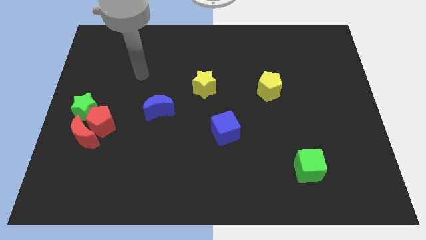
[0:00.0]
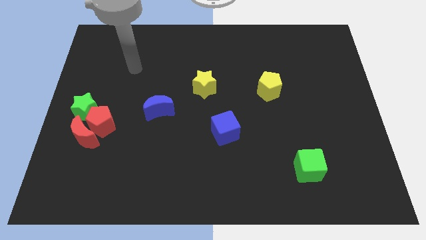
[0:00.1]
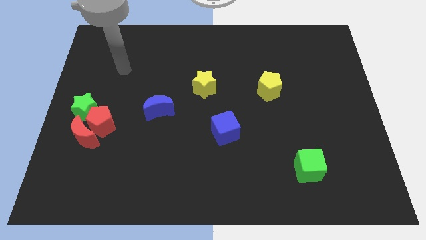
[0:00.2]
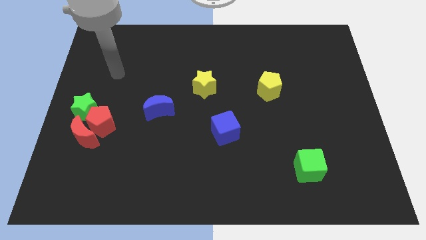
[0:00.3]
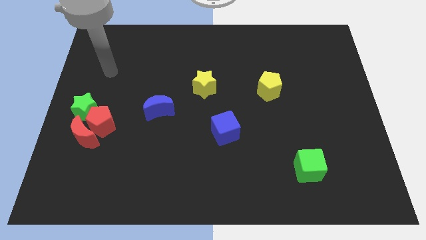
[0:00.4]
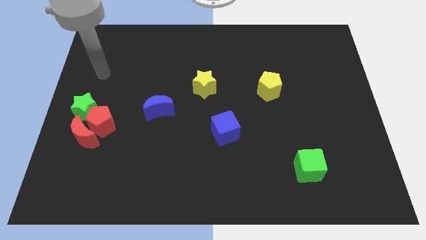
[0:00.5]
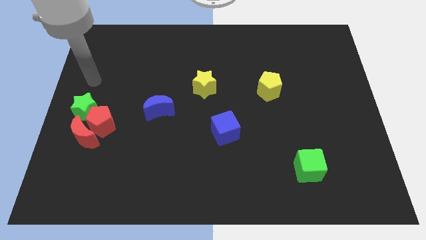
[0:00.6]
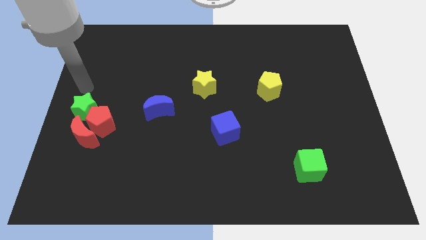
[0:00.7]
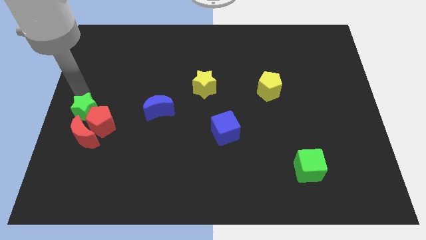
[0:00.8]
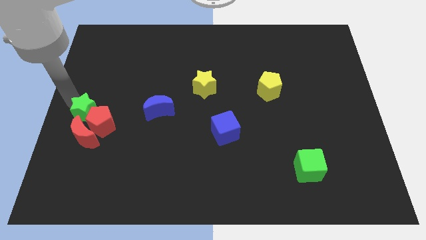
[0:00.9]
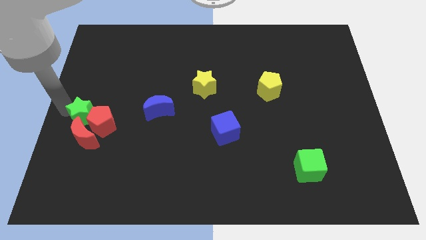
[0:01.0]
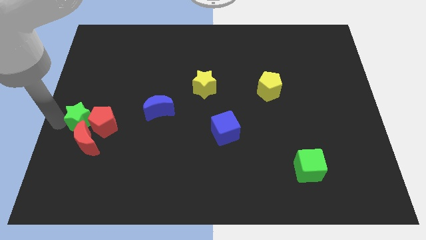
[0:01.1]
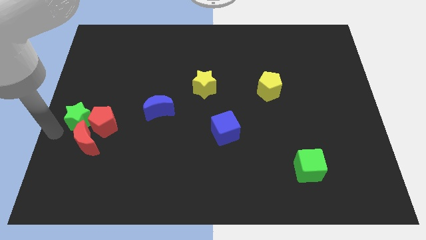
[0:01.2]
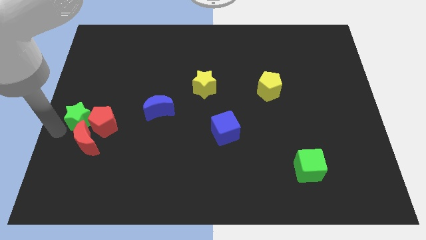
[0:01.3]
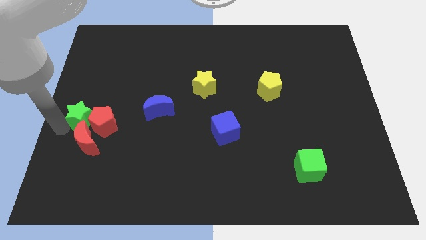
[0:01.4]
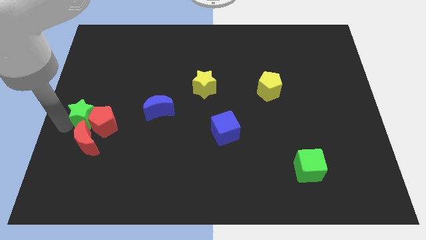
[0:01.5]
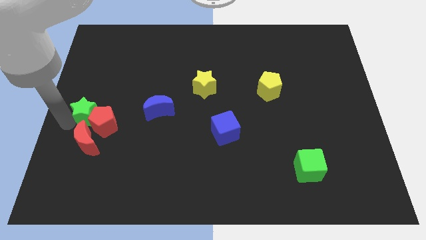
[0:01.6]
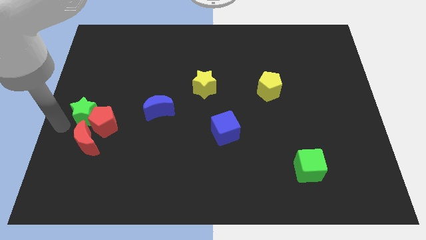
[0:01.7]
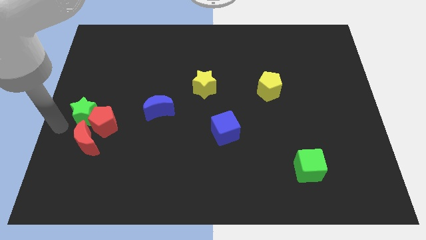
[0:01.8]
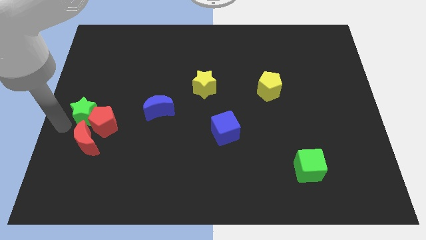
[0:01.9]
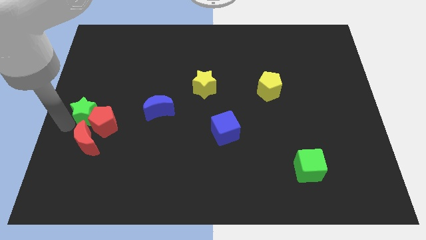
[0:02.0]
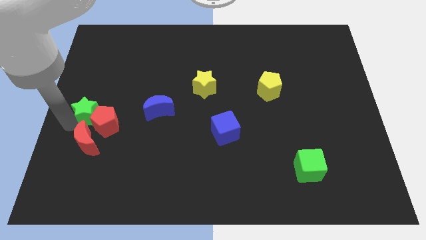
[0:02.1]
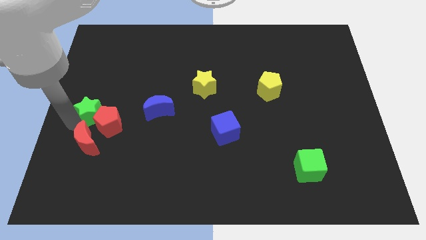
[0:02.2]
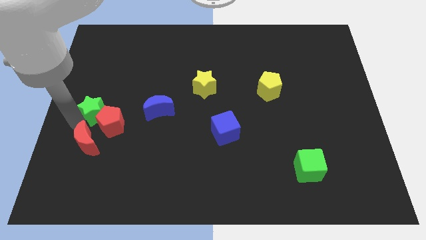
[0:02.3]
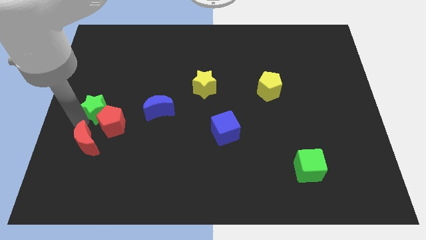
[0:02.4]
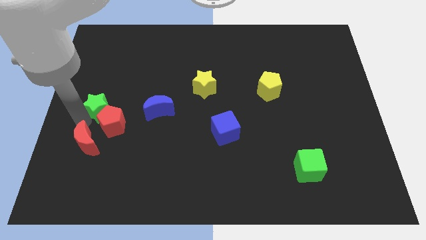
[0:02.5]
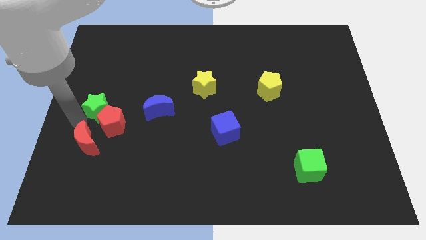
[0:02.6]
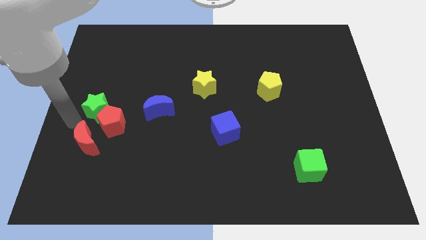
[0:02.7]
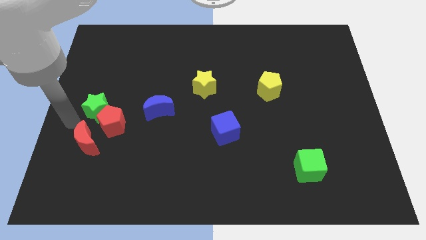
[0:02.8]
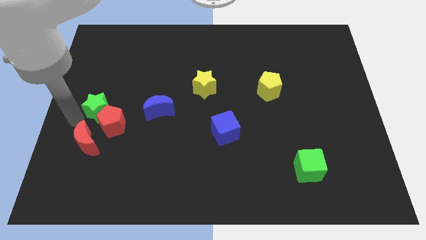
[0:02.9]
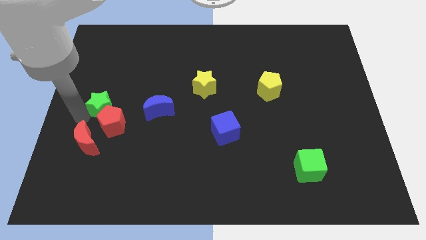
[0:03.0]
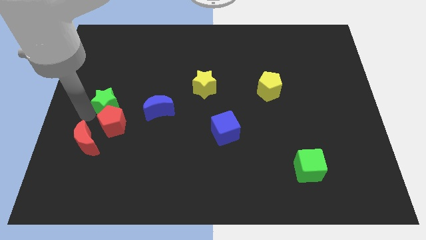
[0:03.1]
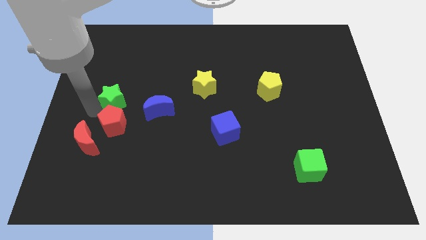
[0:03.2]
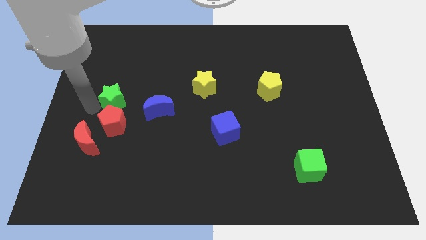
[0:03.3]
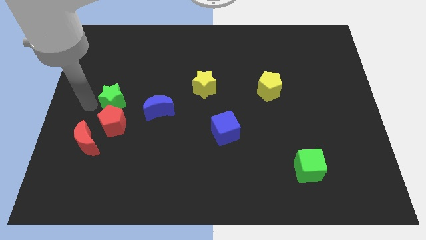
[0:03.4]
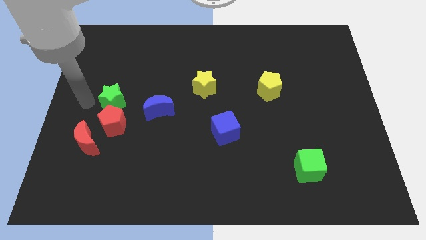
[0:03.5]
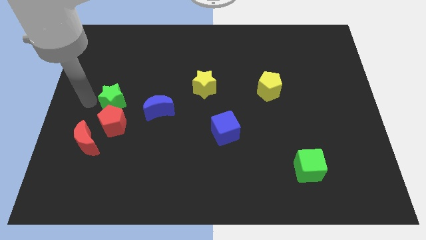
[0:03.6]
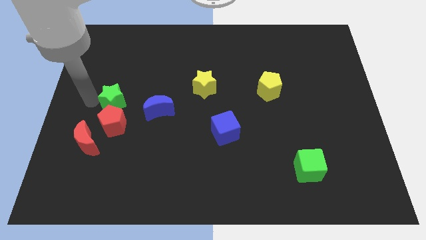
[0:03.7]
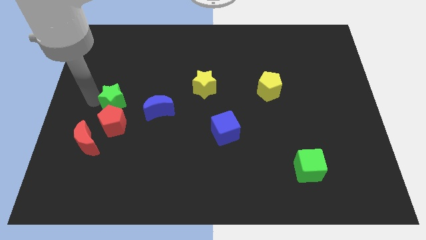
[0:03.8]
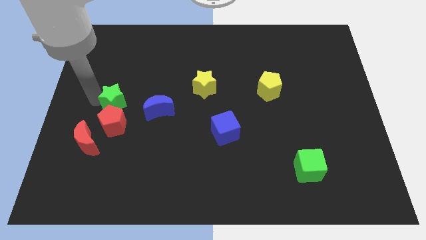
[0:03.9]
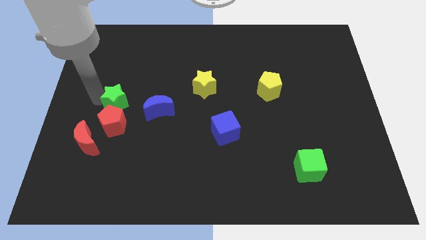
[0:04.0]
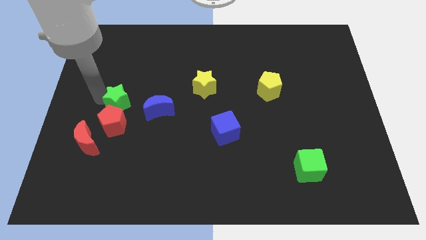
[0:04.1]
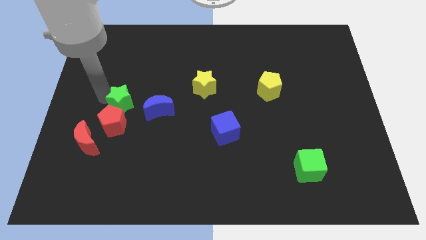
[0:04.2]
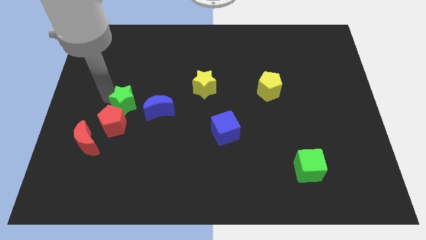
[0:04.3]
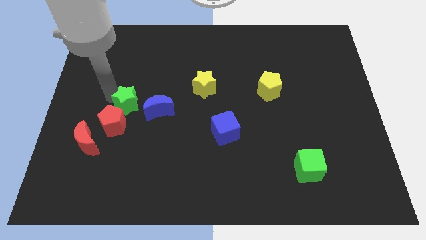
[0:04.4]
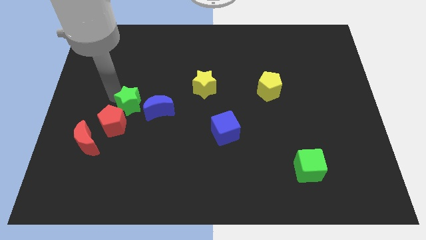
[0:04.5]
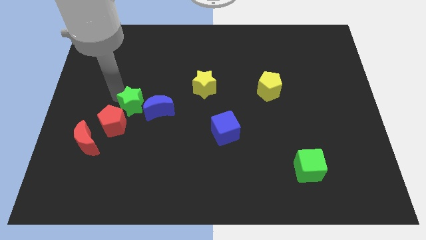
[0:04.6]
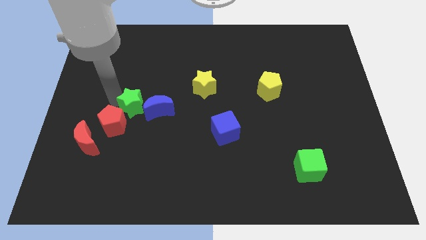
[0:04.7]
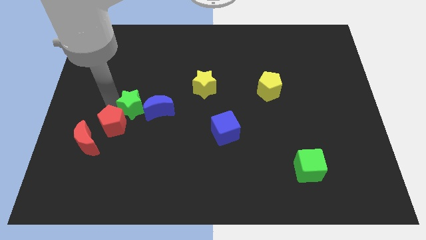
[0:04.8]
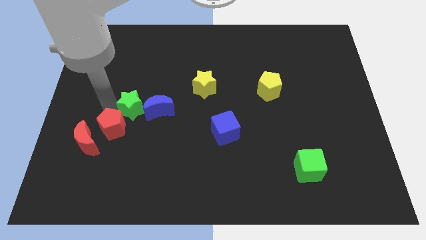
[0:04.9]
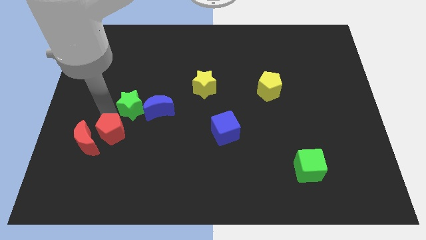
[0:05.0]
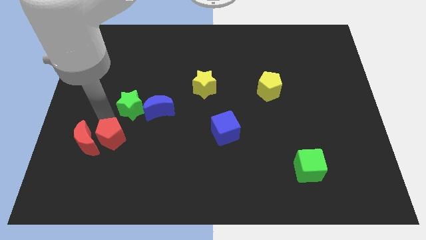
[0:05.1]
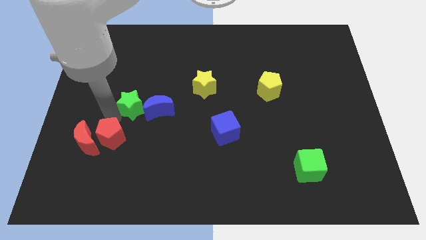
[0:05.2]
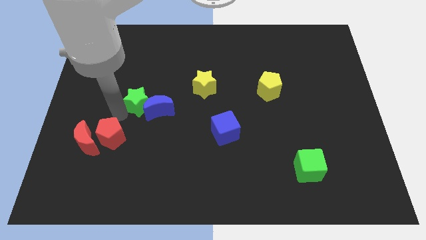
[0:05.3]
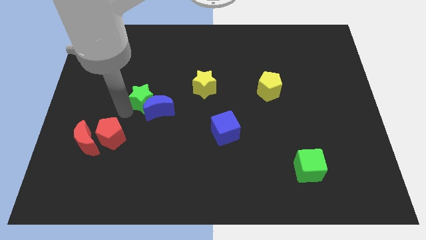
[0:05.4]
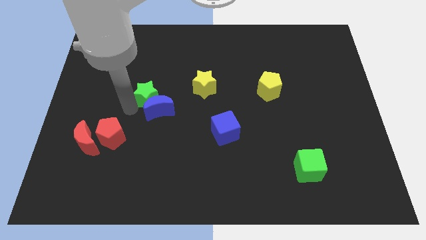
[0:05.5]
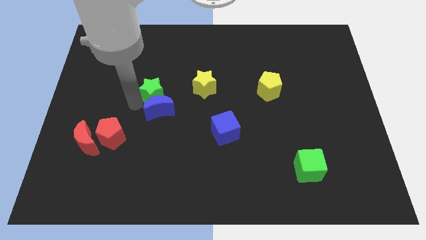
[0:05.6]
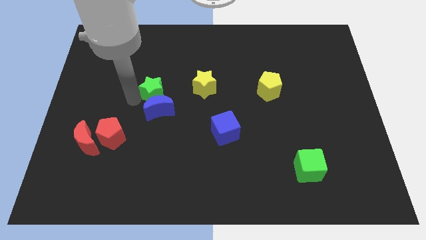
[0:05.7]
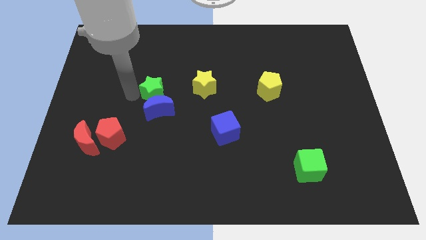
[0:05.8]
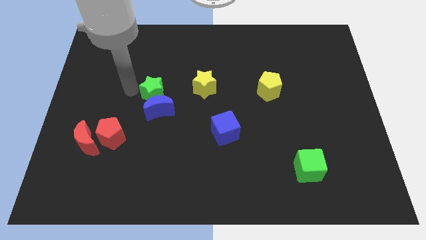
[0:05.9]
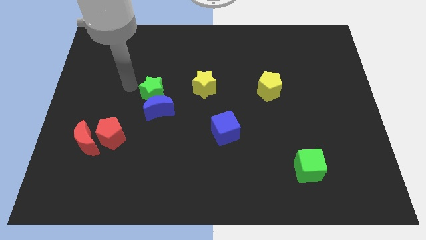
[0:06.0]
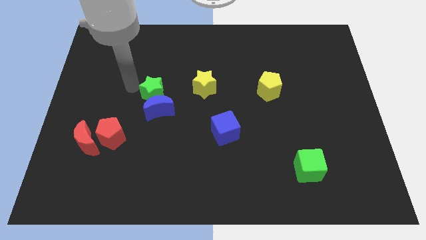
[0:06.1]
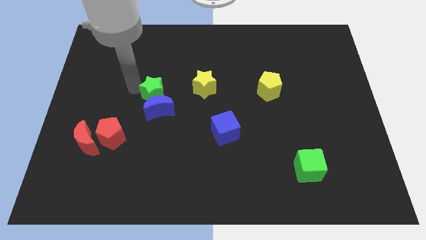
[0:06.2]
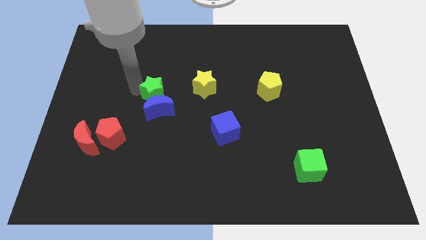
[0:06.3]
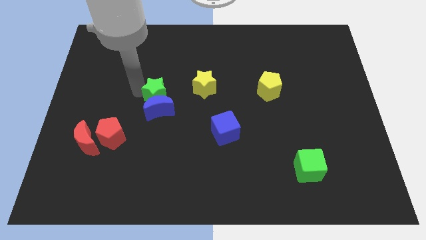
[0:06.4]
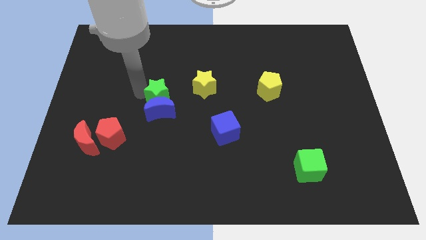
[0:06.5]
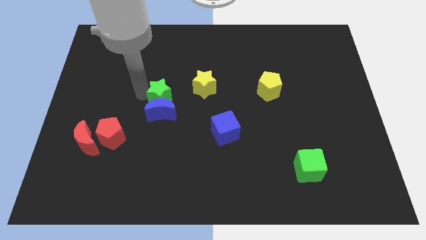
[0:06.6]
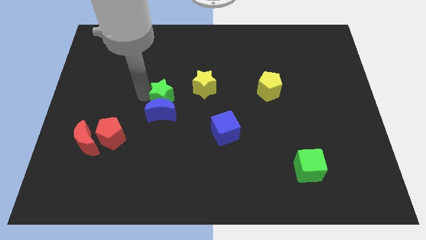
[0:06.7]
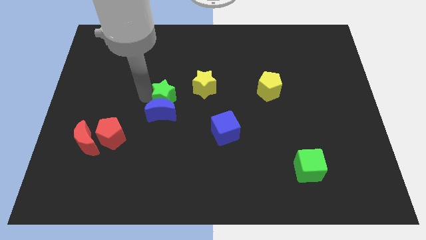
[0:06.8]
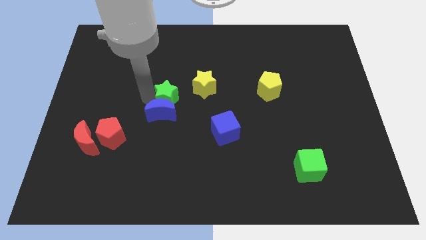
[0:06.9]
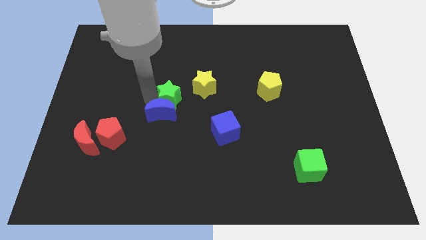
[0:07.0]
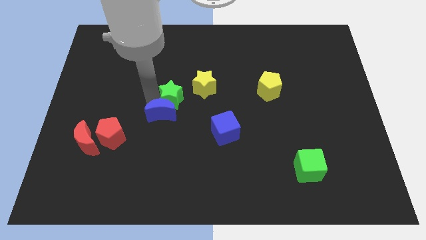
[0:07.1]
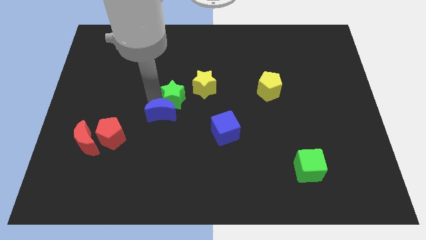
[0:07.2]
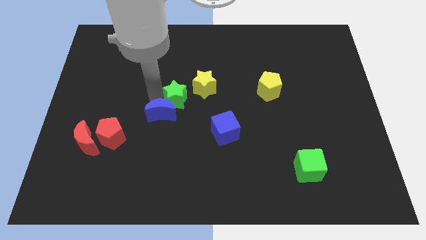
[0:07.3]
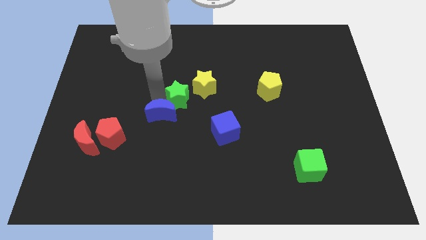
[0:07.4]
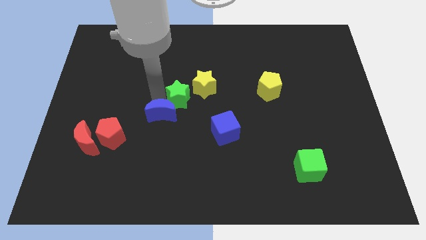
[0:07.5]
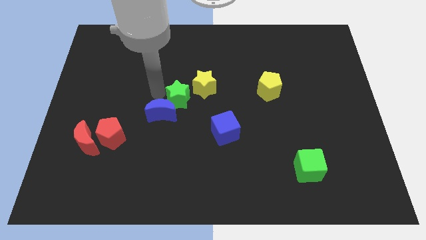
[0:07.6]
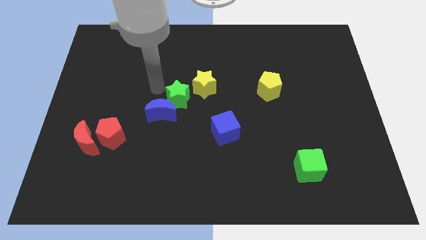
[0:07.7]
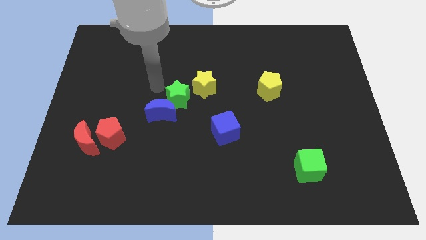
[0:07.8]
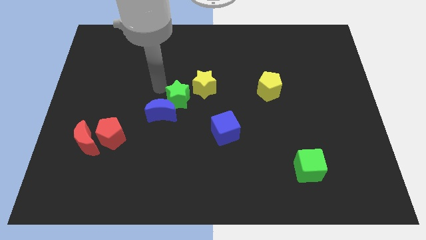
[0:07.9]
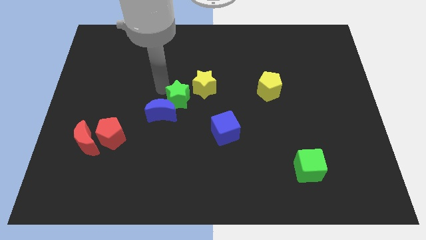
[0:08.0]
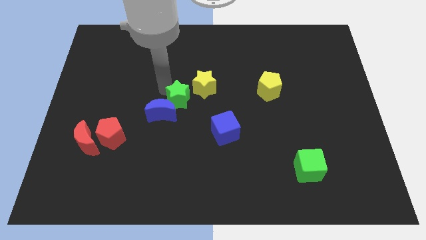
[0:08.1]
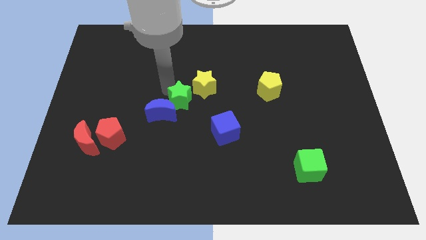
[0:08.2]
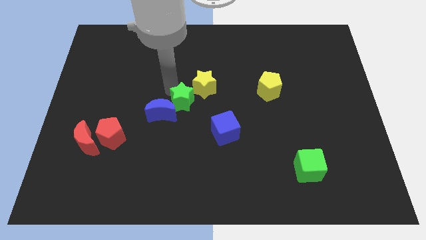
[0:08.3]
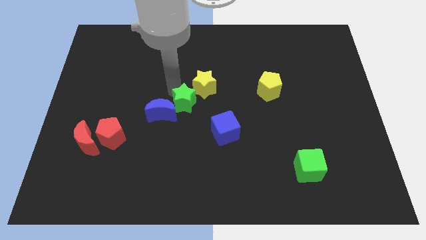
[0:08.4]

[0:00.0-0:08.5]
put the green star diagonally up and to the left of the blue cube
